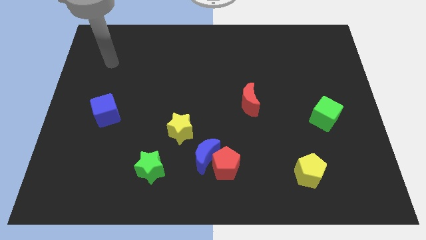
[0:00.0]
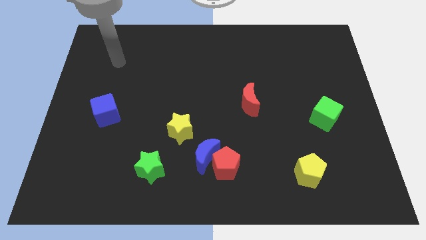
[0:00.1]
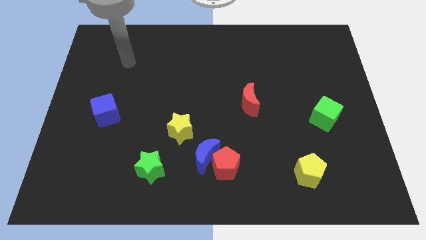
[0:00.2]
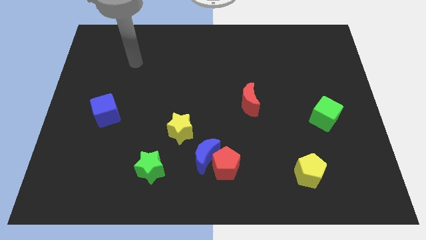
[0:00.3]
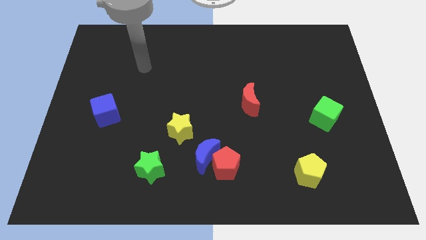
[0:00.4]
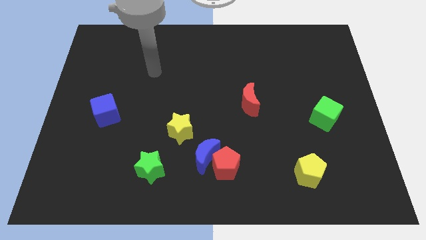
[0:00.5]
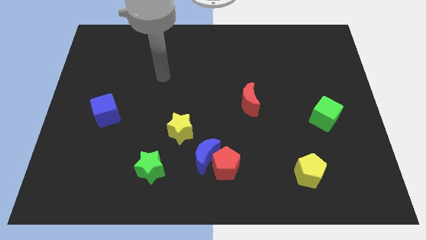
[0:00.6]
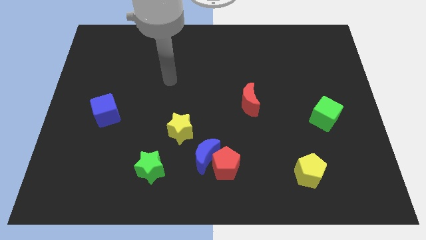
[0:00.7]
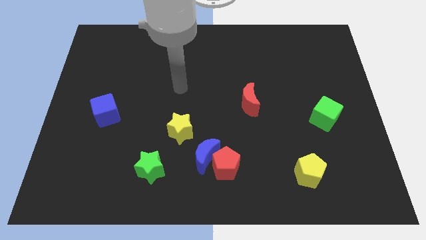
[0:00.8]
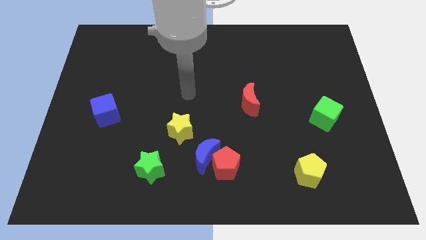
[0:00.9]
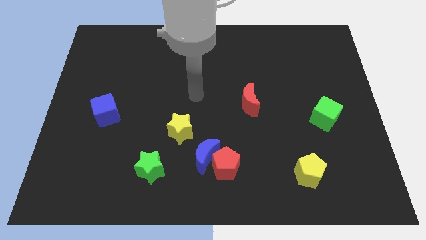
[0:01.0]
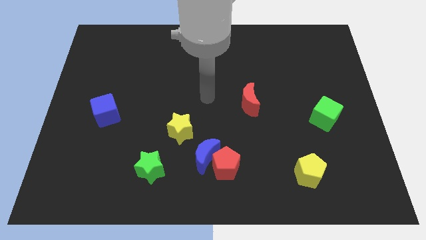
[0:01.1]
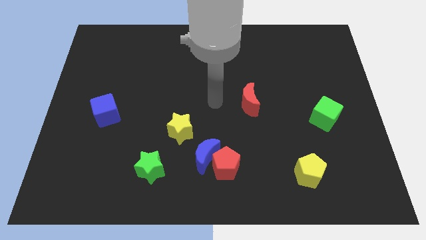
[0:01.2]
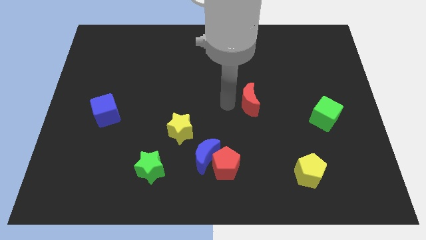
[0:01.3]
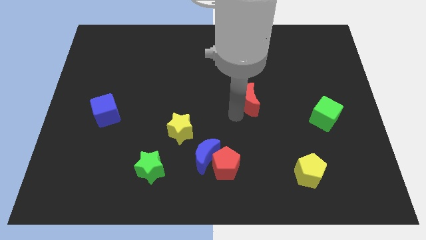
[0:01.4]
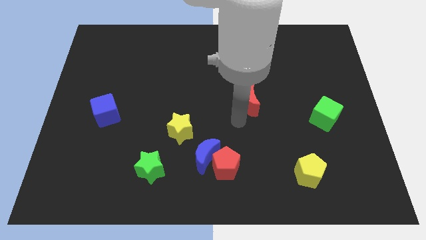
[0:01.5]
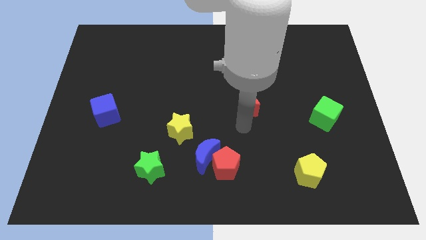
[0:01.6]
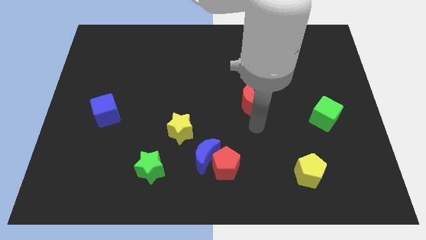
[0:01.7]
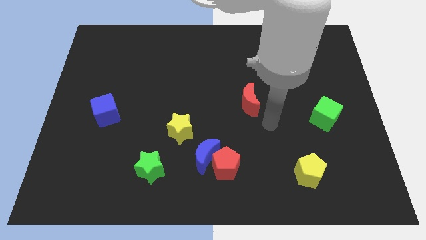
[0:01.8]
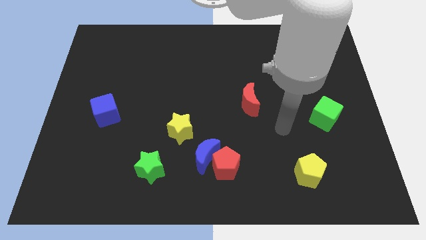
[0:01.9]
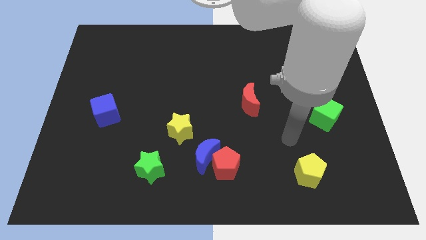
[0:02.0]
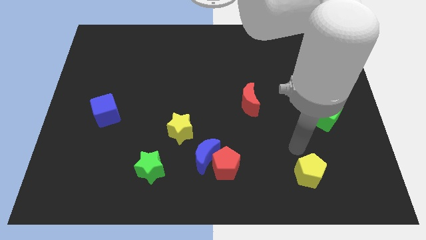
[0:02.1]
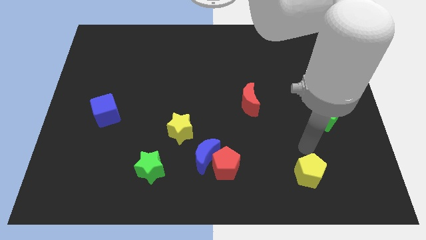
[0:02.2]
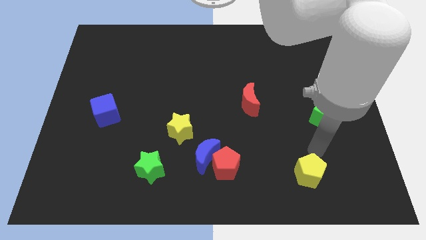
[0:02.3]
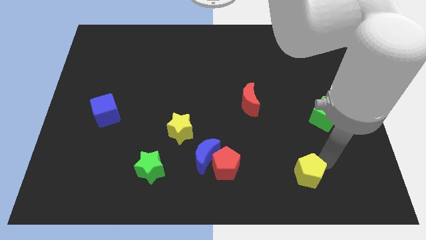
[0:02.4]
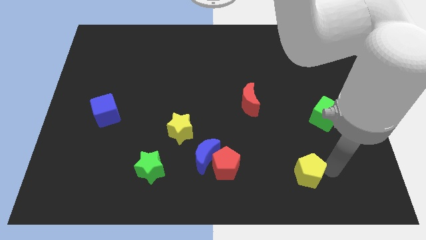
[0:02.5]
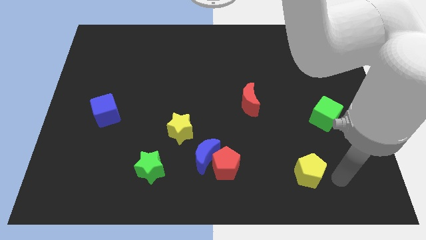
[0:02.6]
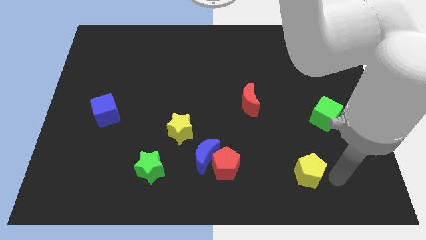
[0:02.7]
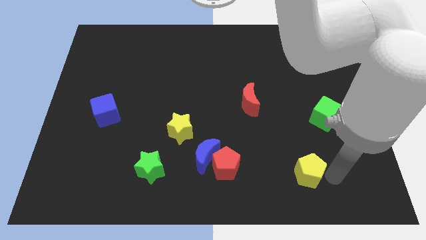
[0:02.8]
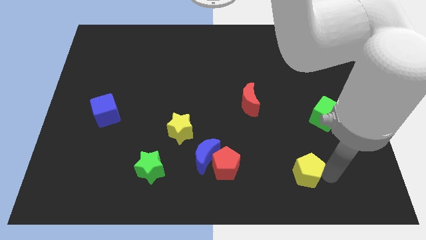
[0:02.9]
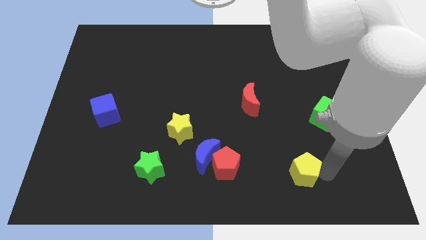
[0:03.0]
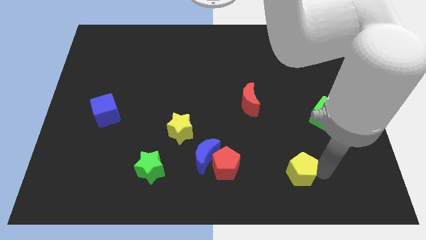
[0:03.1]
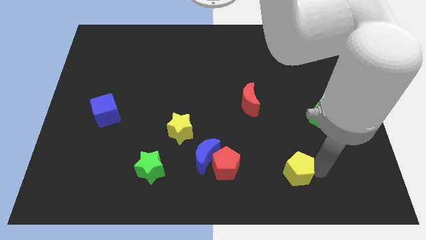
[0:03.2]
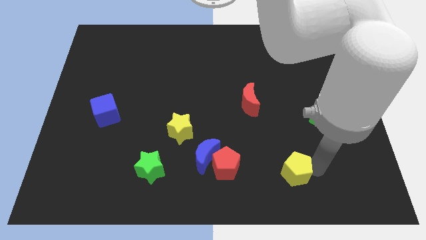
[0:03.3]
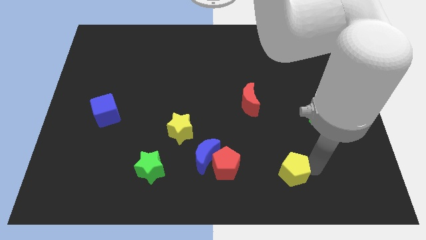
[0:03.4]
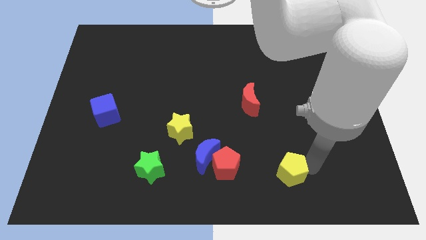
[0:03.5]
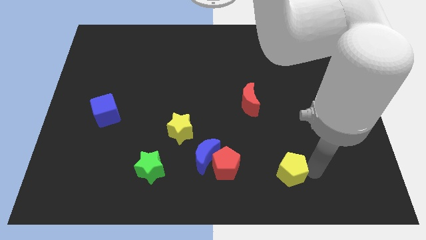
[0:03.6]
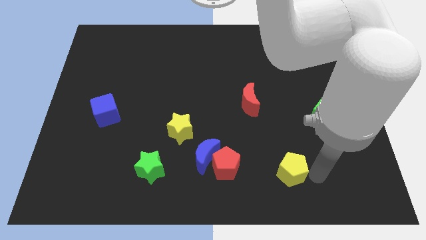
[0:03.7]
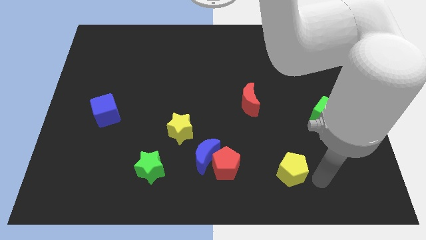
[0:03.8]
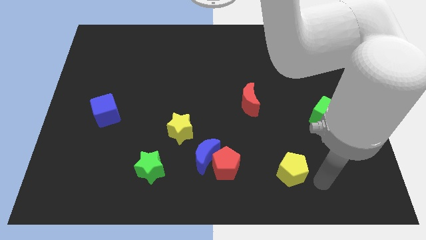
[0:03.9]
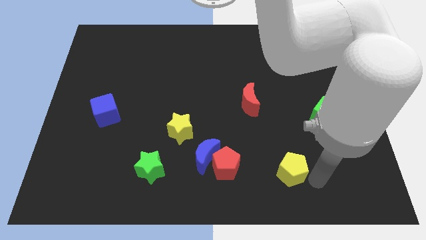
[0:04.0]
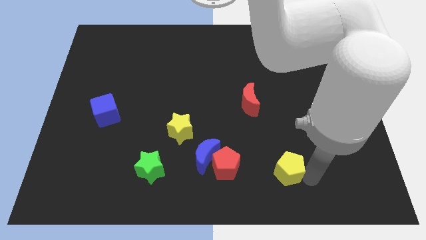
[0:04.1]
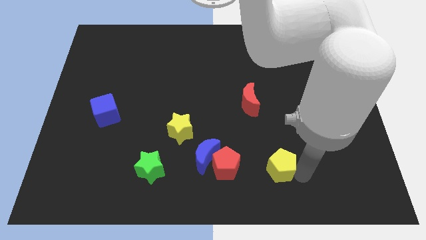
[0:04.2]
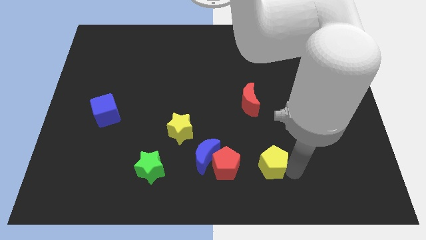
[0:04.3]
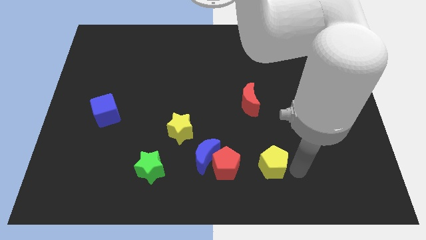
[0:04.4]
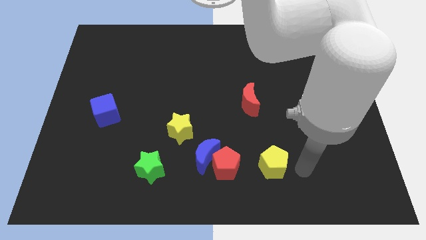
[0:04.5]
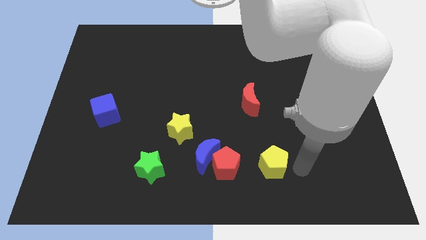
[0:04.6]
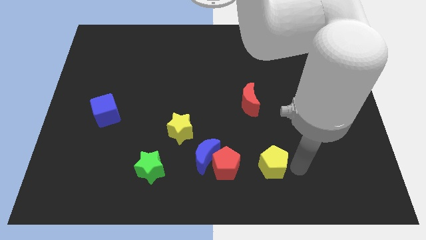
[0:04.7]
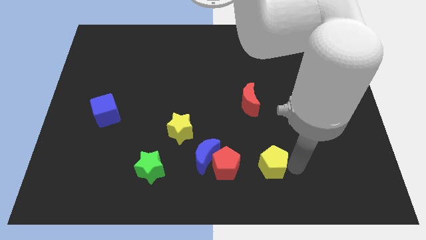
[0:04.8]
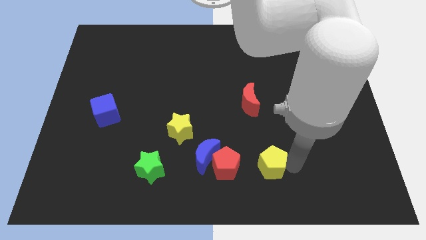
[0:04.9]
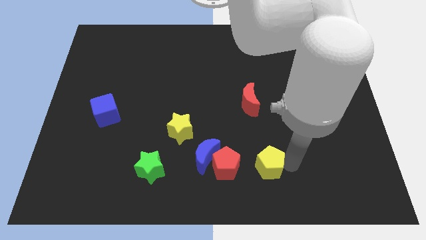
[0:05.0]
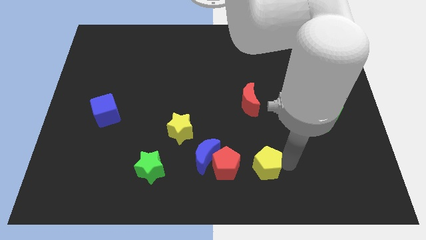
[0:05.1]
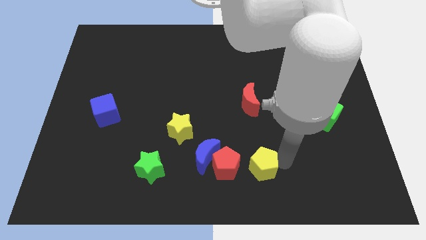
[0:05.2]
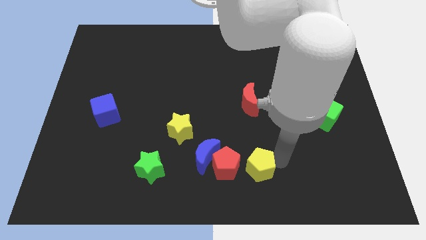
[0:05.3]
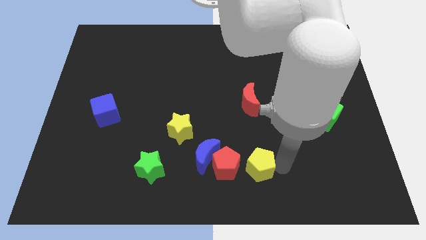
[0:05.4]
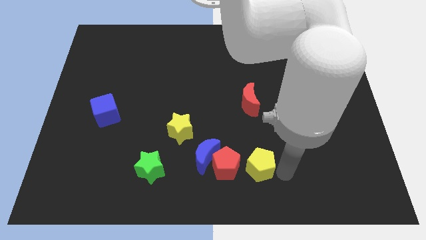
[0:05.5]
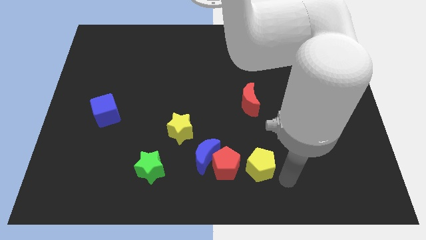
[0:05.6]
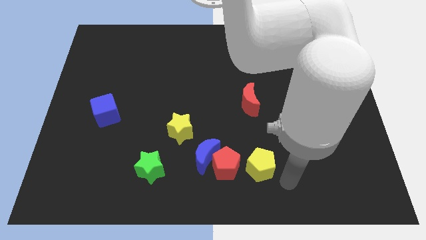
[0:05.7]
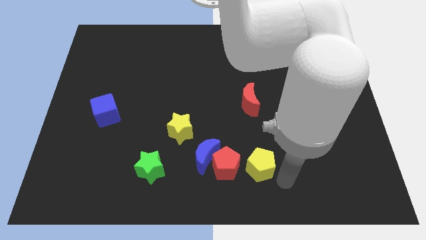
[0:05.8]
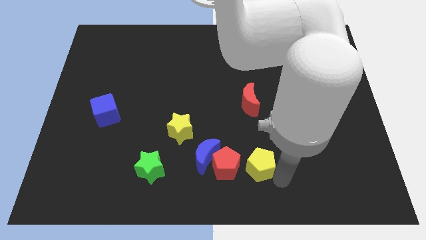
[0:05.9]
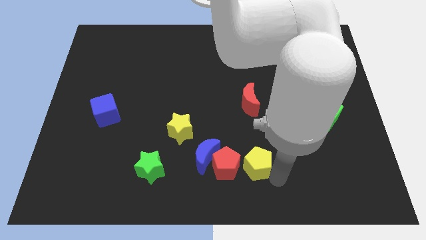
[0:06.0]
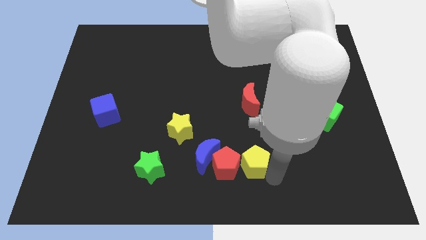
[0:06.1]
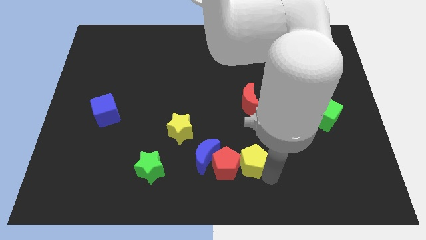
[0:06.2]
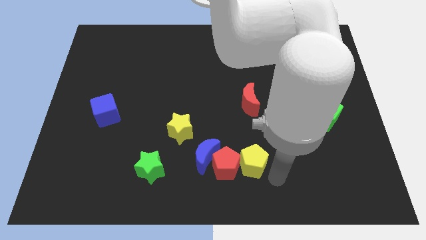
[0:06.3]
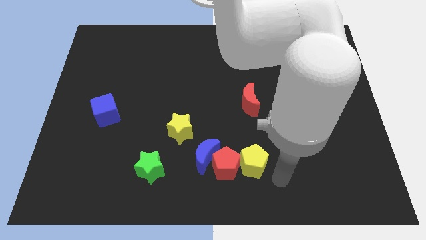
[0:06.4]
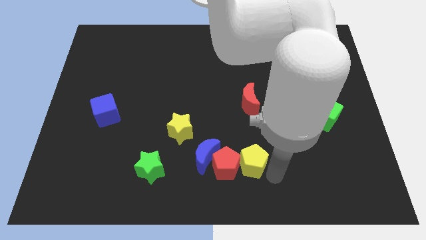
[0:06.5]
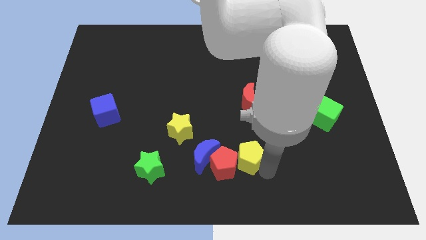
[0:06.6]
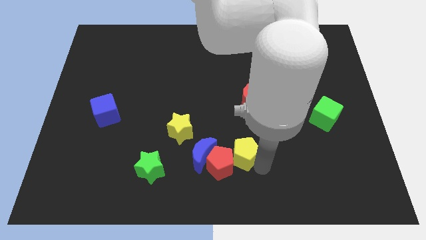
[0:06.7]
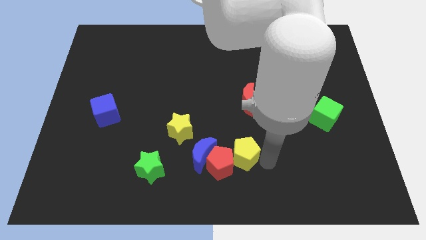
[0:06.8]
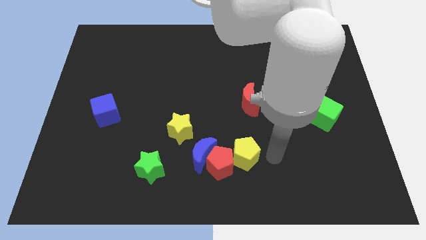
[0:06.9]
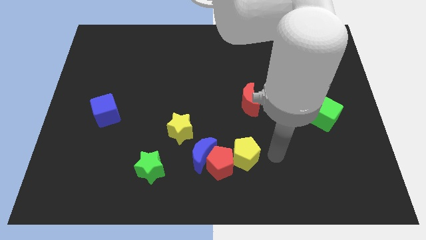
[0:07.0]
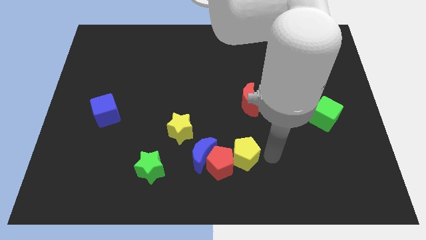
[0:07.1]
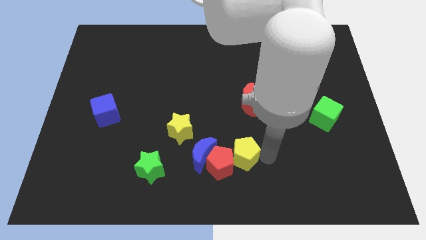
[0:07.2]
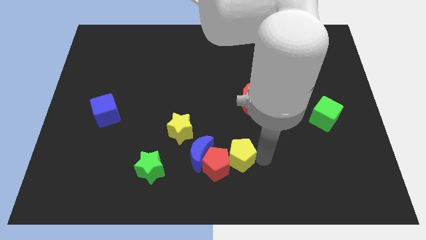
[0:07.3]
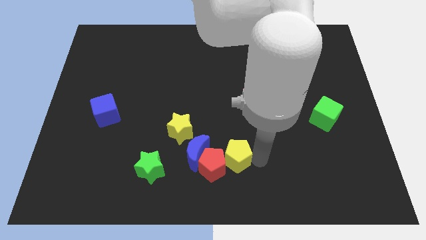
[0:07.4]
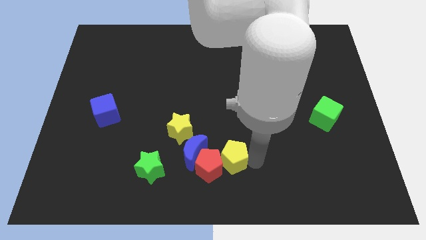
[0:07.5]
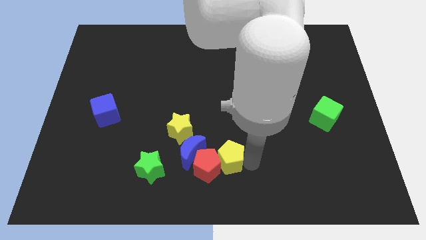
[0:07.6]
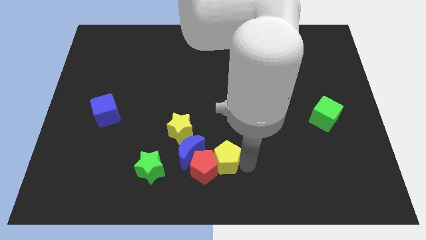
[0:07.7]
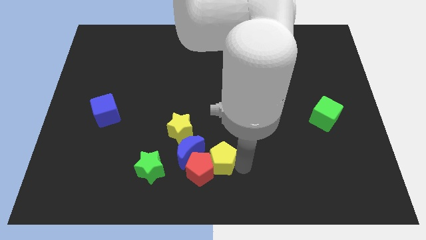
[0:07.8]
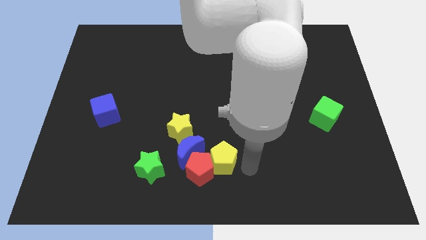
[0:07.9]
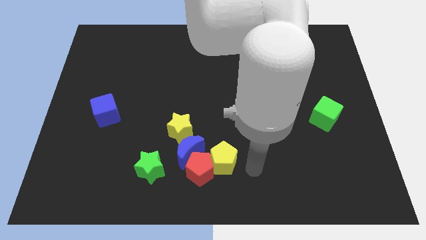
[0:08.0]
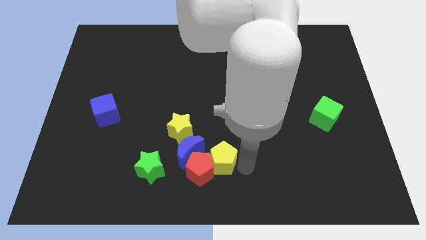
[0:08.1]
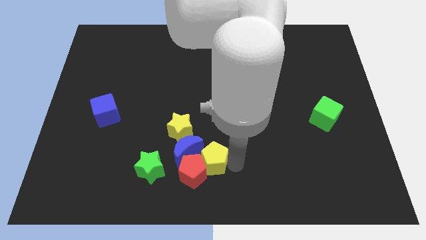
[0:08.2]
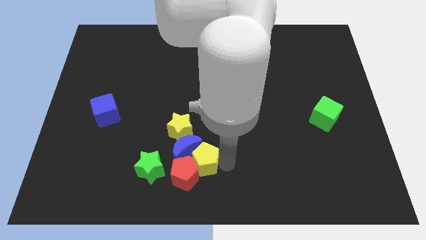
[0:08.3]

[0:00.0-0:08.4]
push the yellow pentagon to the blue moon
